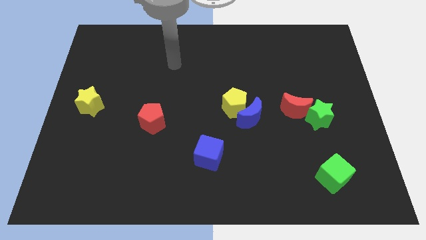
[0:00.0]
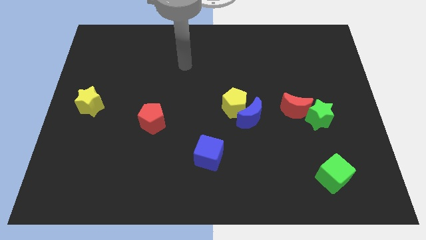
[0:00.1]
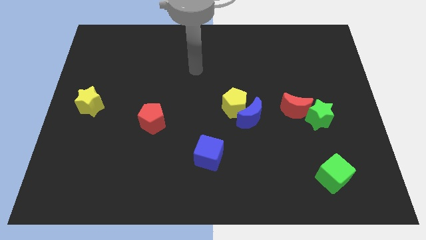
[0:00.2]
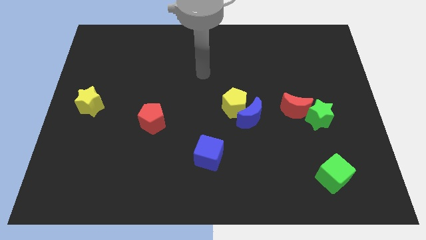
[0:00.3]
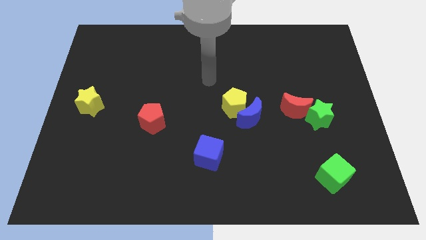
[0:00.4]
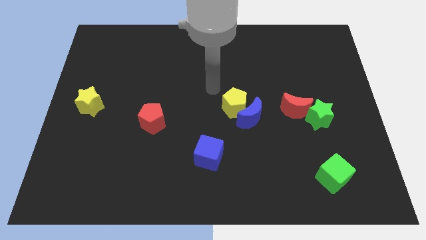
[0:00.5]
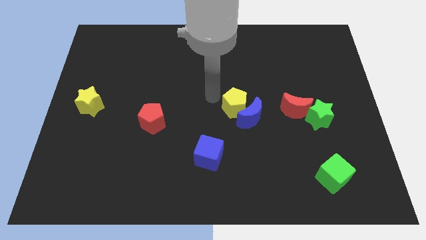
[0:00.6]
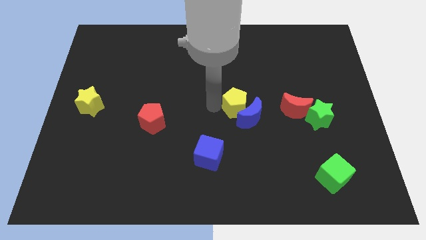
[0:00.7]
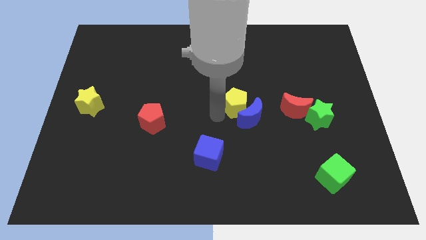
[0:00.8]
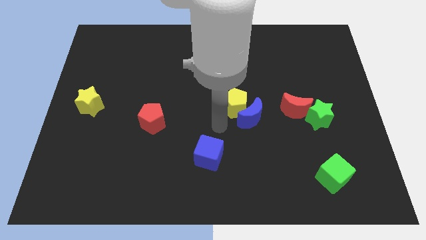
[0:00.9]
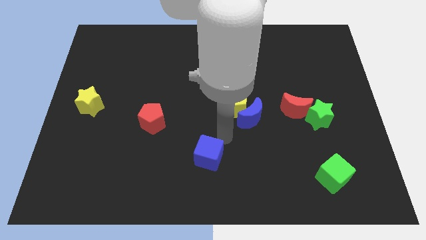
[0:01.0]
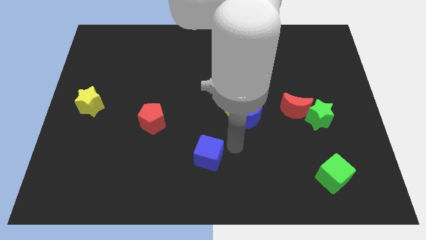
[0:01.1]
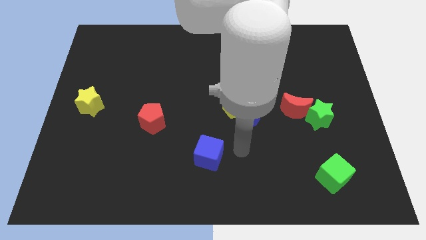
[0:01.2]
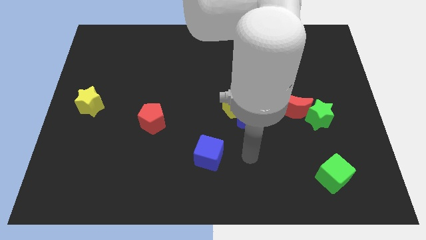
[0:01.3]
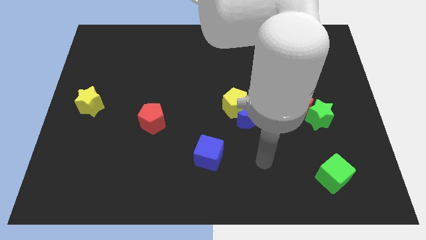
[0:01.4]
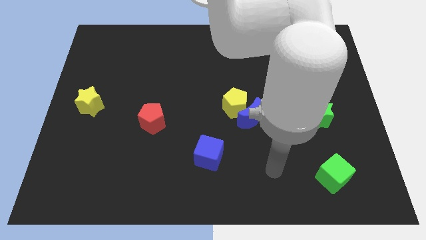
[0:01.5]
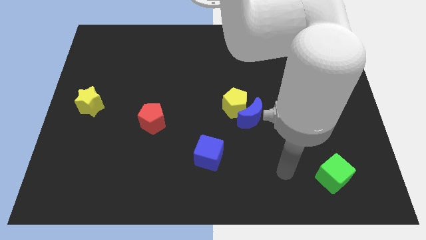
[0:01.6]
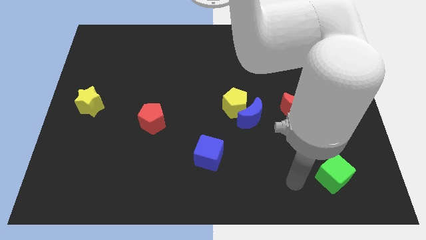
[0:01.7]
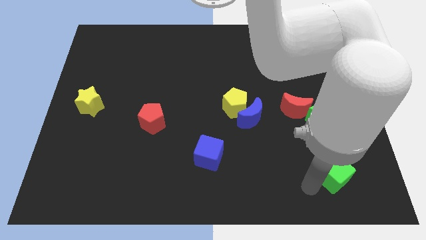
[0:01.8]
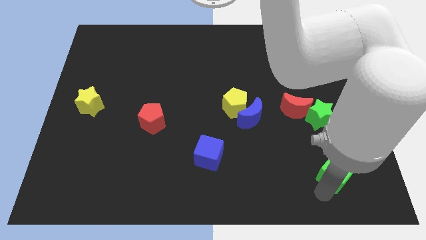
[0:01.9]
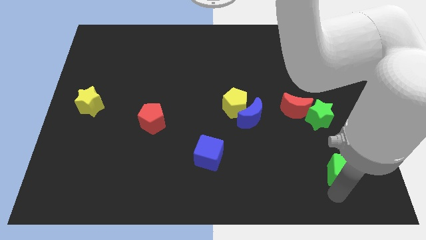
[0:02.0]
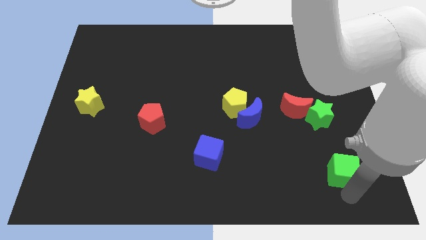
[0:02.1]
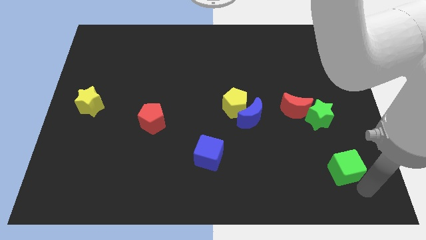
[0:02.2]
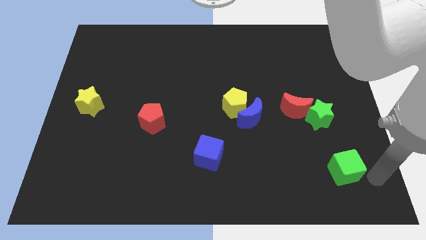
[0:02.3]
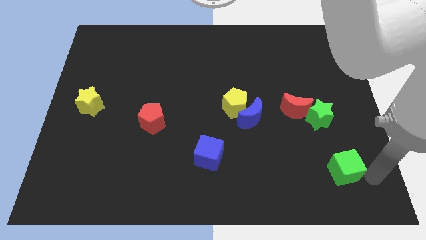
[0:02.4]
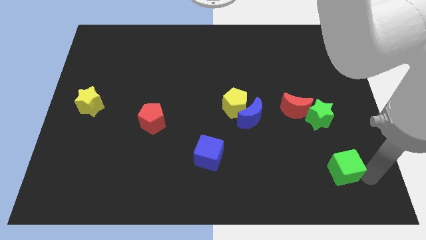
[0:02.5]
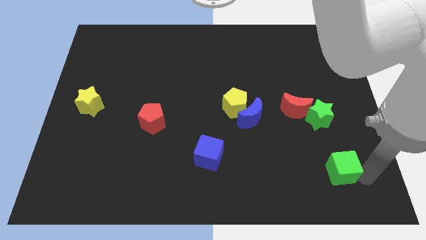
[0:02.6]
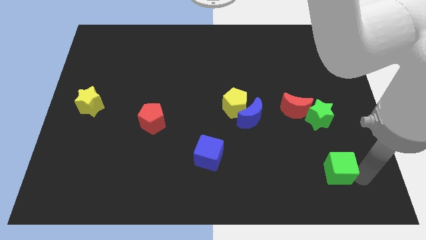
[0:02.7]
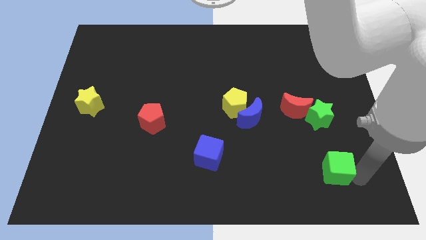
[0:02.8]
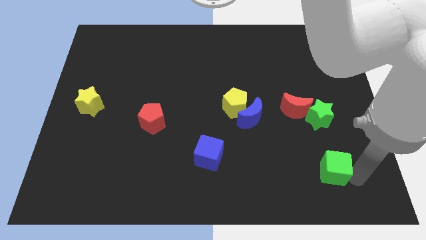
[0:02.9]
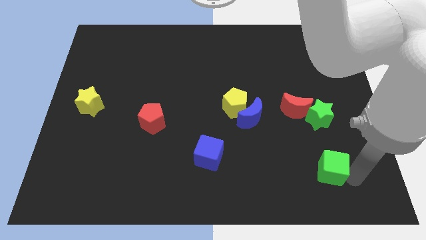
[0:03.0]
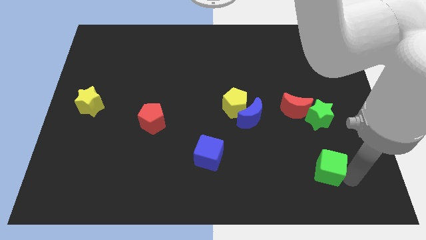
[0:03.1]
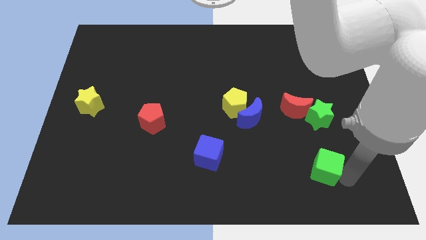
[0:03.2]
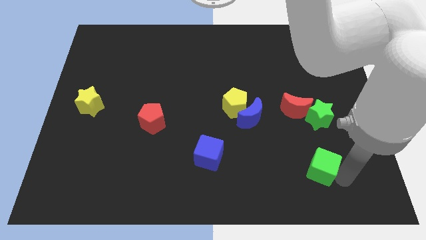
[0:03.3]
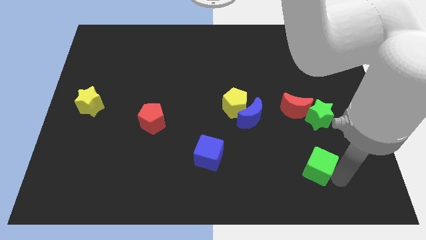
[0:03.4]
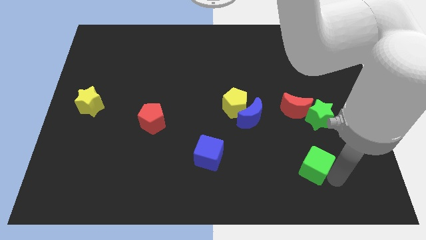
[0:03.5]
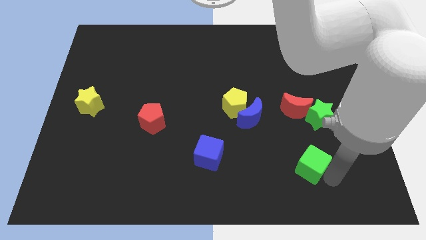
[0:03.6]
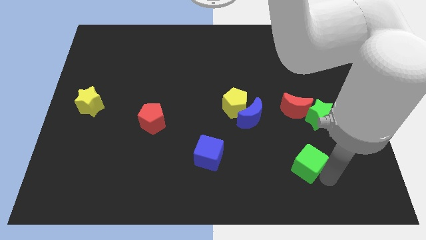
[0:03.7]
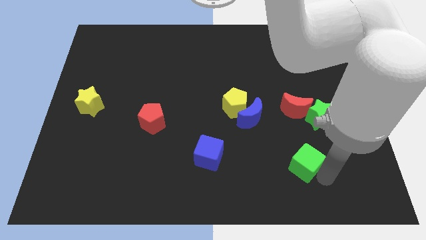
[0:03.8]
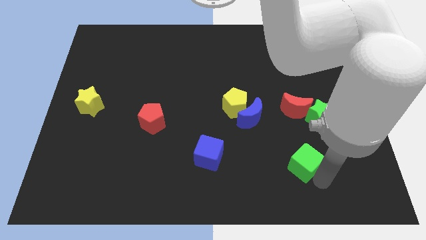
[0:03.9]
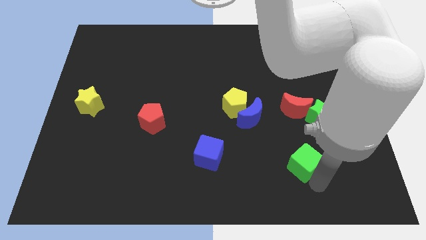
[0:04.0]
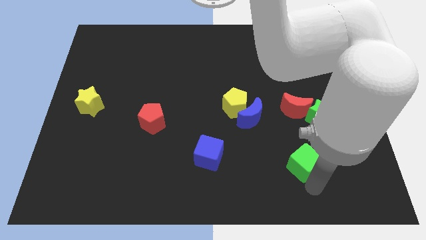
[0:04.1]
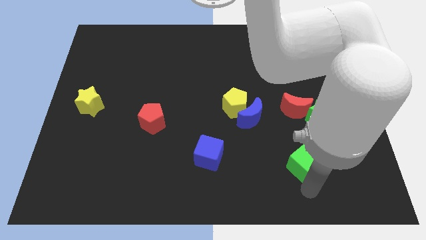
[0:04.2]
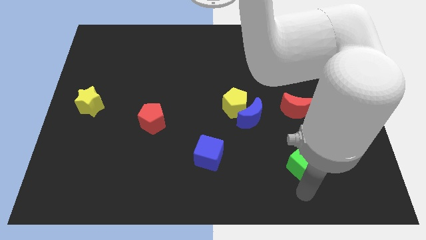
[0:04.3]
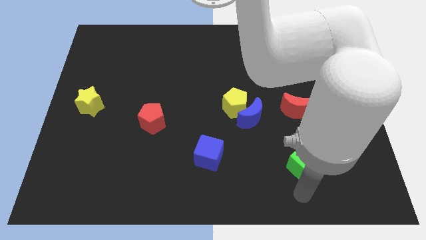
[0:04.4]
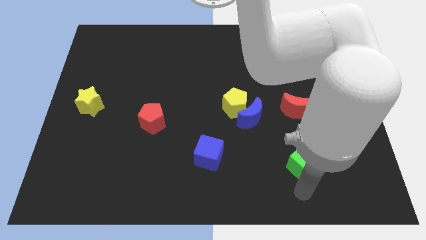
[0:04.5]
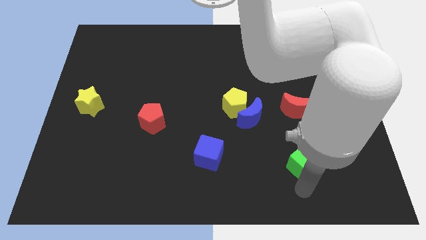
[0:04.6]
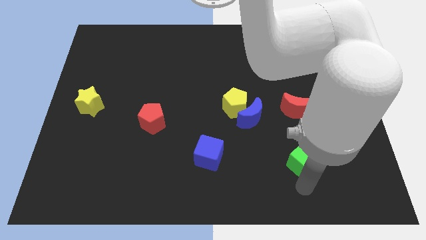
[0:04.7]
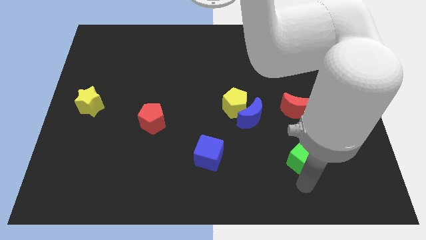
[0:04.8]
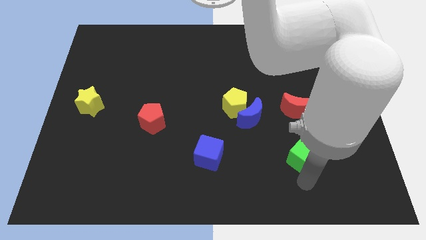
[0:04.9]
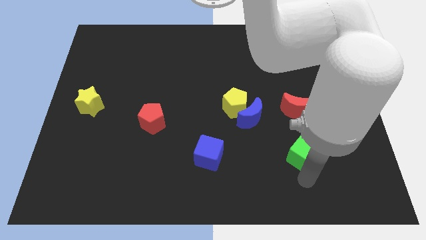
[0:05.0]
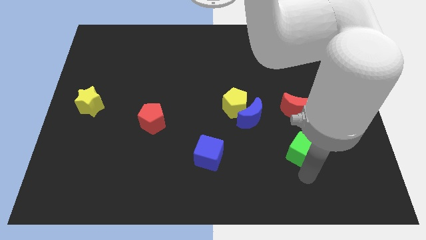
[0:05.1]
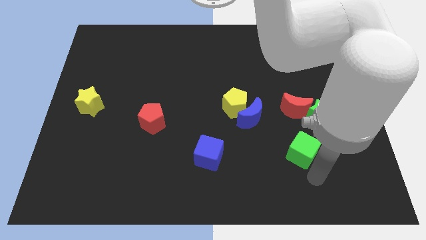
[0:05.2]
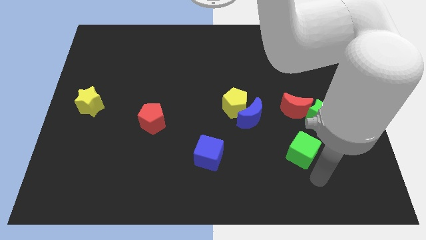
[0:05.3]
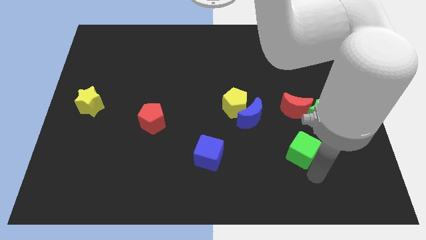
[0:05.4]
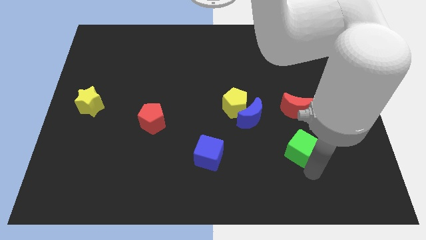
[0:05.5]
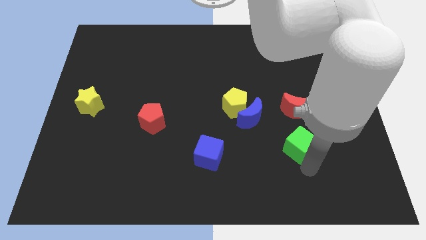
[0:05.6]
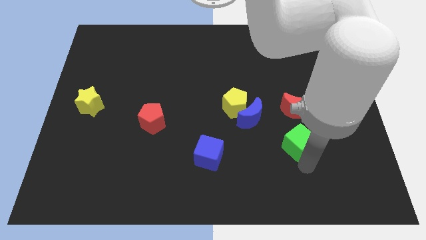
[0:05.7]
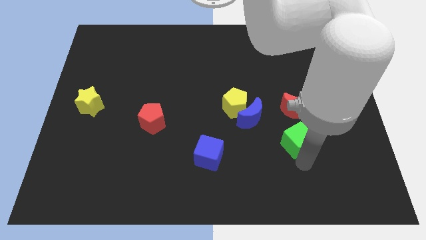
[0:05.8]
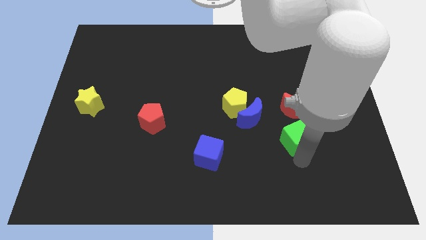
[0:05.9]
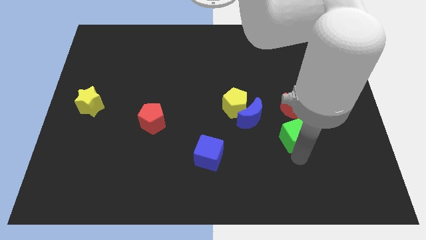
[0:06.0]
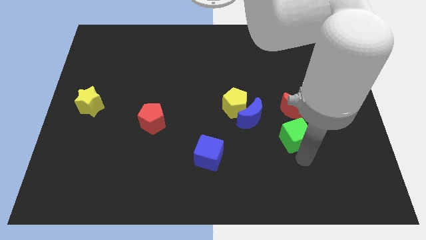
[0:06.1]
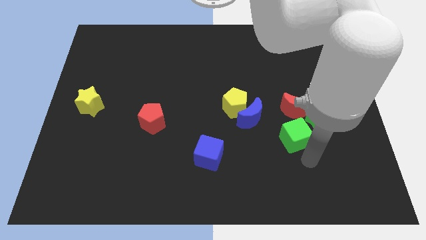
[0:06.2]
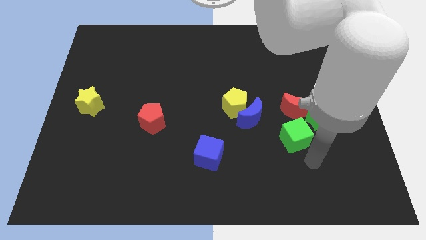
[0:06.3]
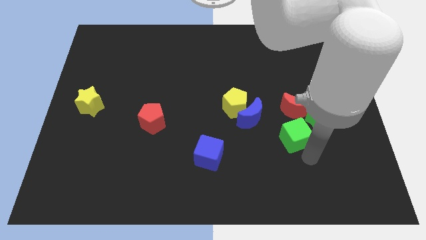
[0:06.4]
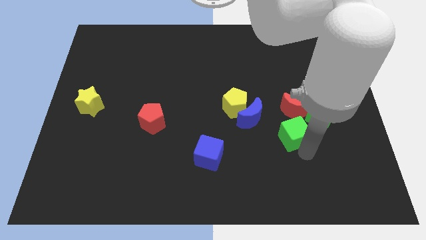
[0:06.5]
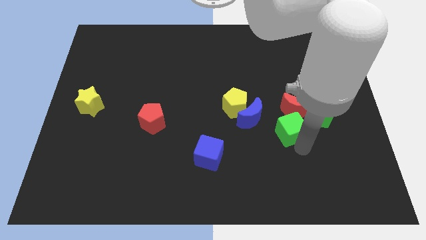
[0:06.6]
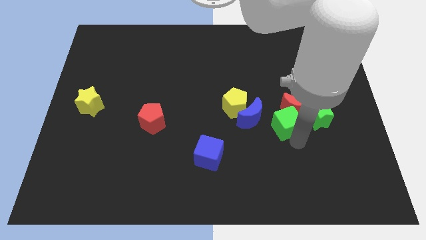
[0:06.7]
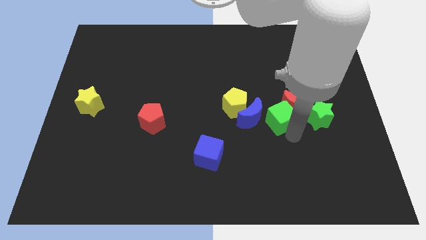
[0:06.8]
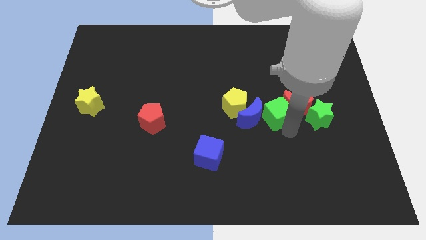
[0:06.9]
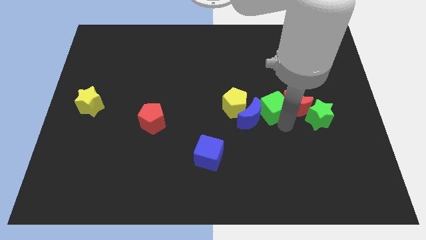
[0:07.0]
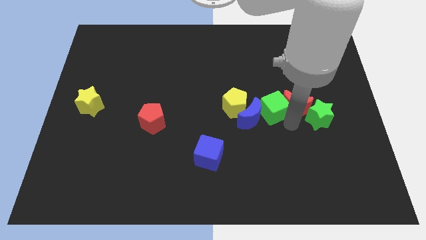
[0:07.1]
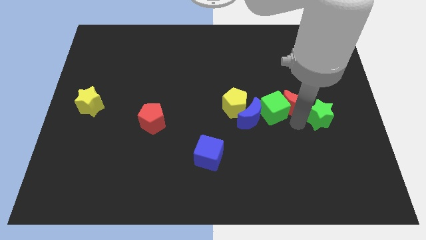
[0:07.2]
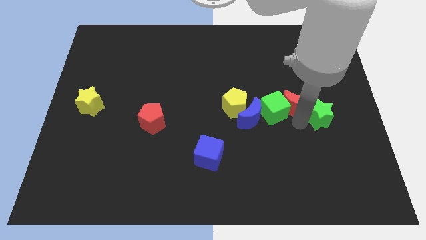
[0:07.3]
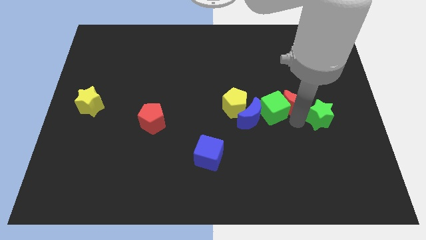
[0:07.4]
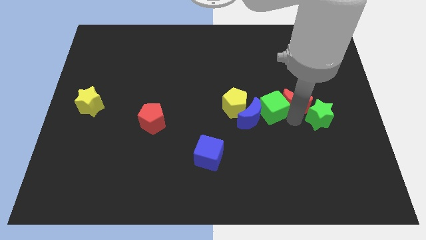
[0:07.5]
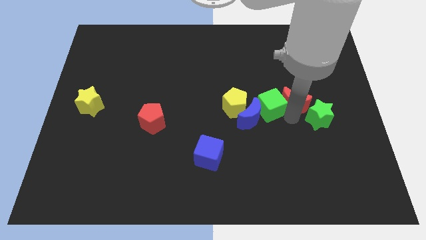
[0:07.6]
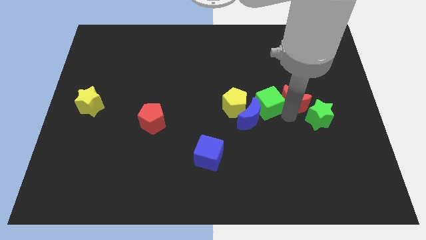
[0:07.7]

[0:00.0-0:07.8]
move the green cube up and then left

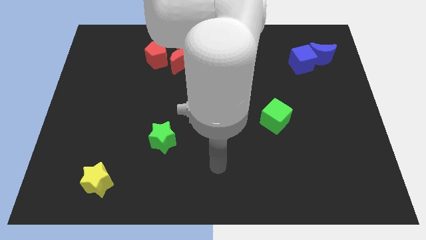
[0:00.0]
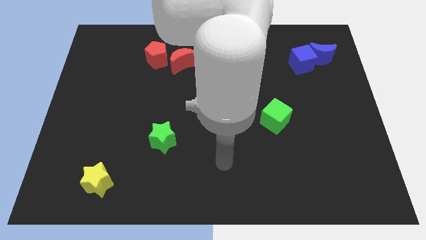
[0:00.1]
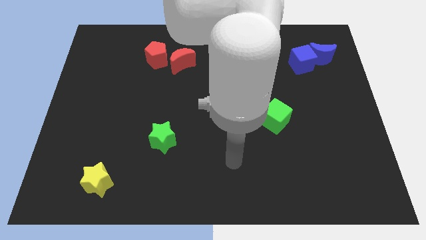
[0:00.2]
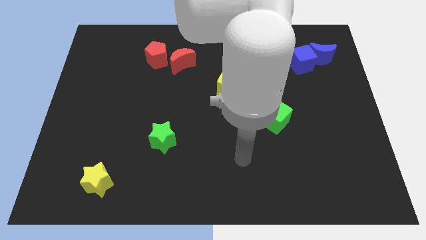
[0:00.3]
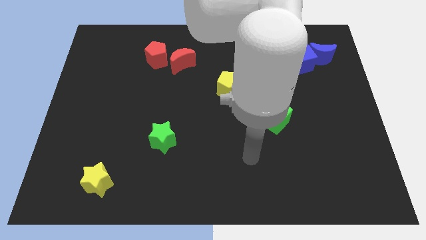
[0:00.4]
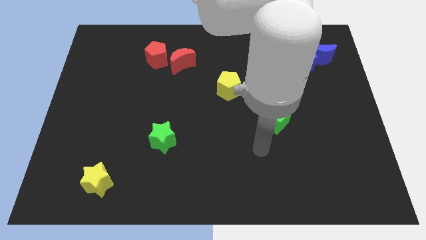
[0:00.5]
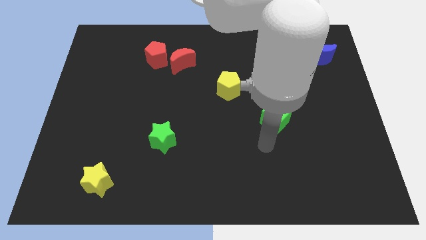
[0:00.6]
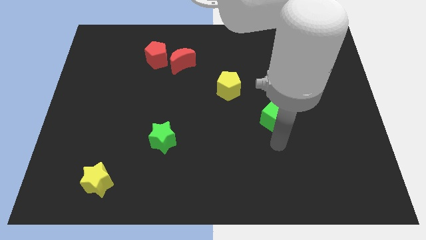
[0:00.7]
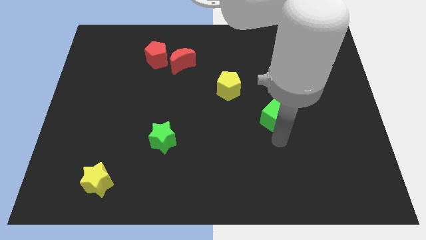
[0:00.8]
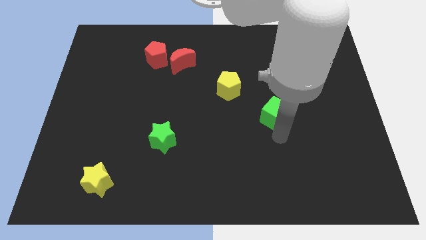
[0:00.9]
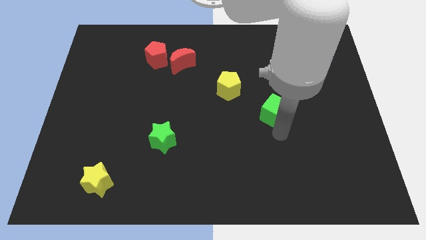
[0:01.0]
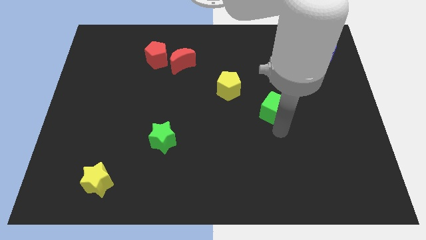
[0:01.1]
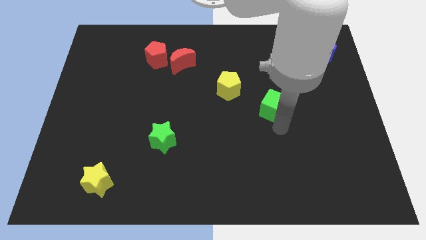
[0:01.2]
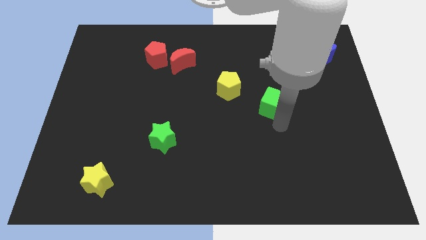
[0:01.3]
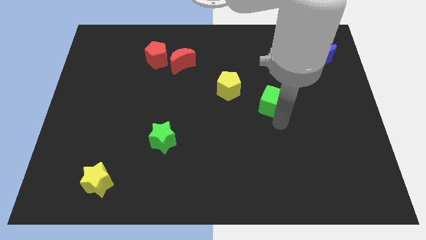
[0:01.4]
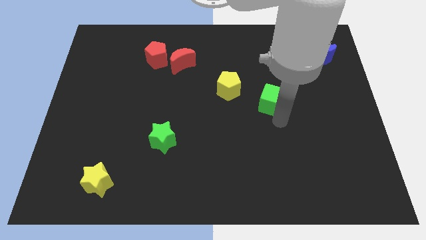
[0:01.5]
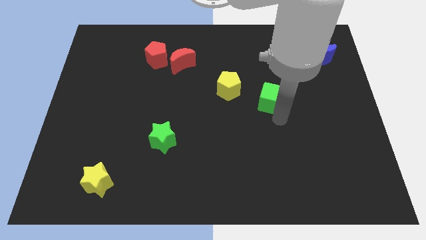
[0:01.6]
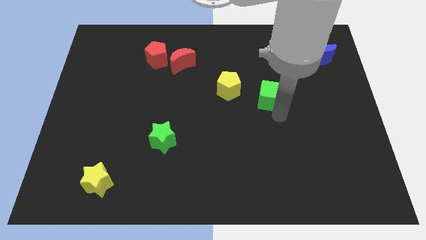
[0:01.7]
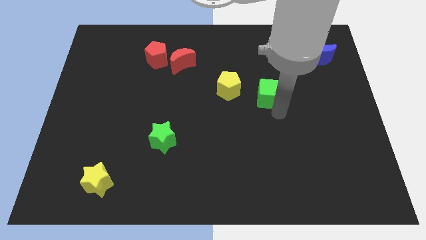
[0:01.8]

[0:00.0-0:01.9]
push the green cube upwards a bit
